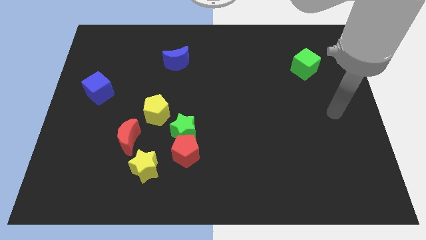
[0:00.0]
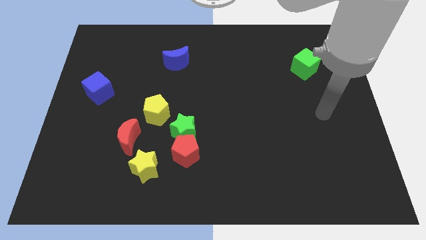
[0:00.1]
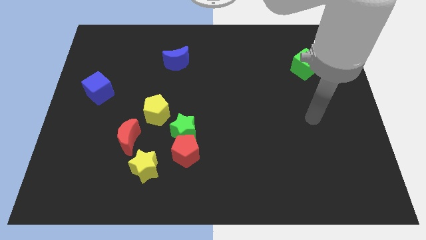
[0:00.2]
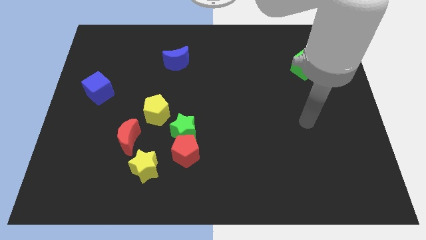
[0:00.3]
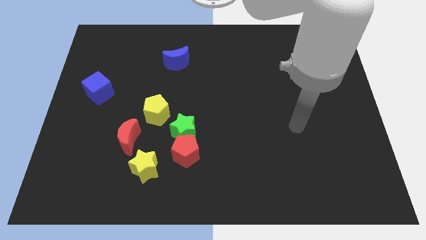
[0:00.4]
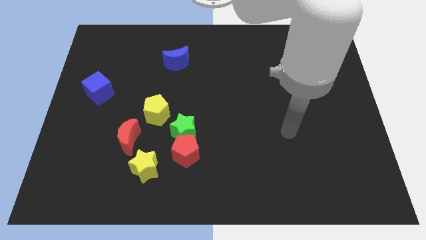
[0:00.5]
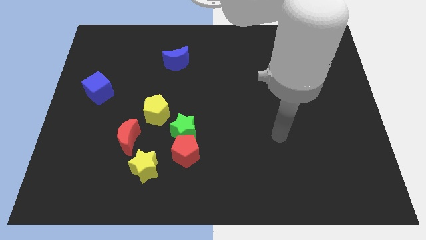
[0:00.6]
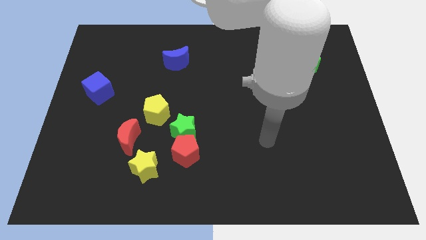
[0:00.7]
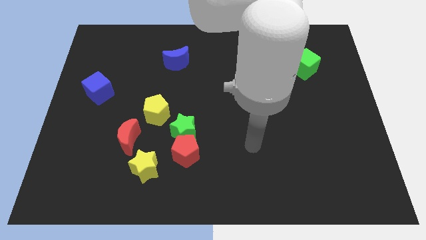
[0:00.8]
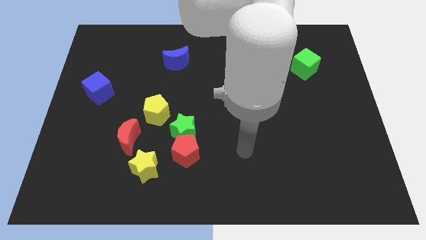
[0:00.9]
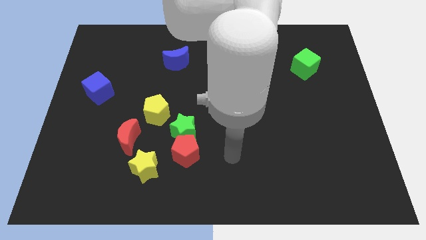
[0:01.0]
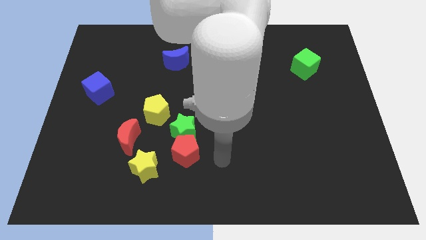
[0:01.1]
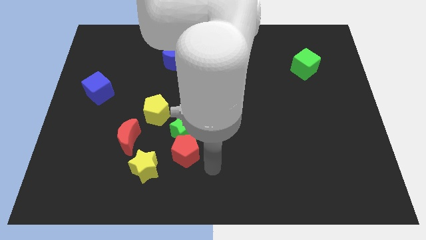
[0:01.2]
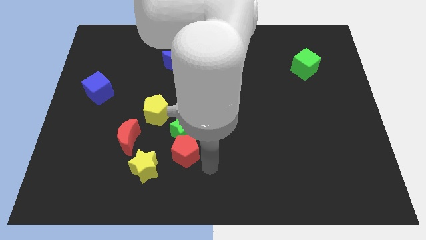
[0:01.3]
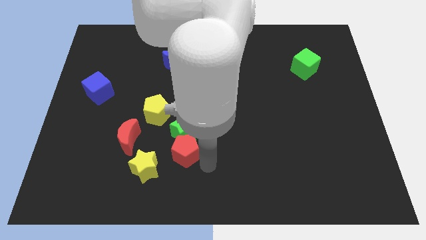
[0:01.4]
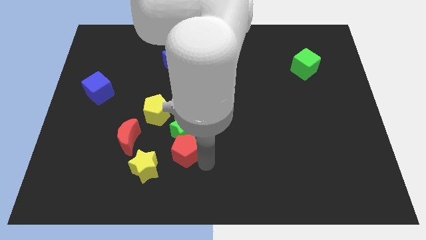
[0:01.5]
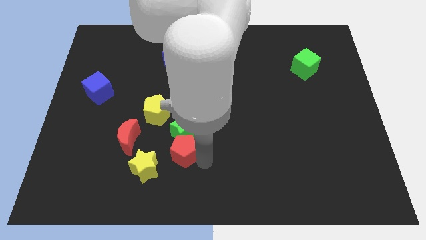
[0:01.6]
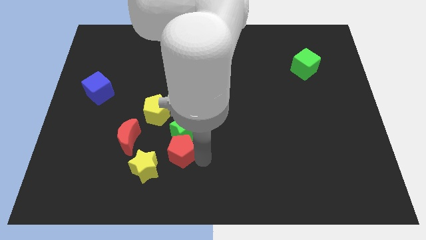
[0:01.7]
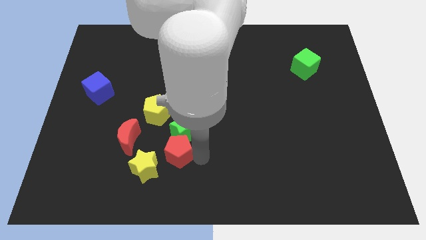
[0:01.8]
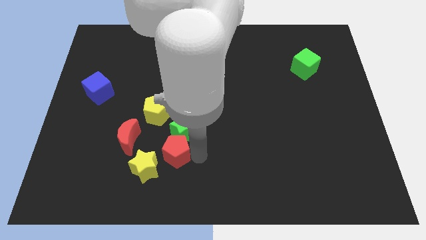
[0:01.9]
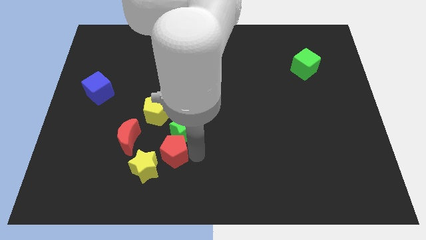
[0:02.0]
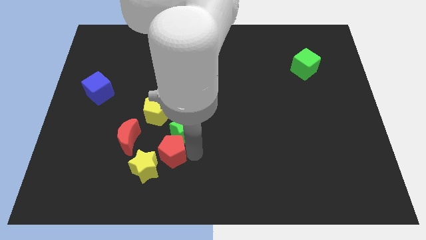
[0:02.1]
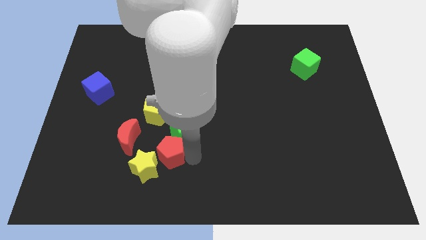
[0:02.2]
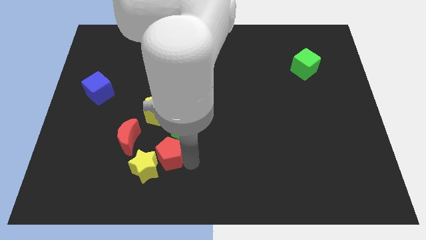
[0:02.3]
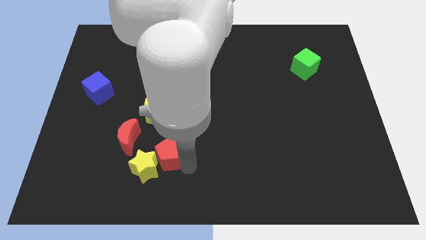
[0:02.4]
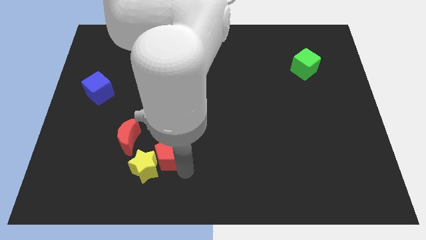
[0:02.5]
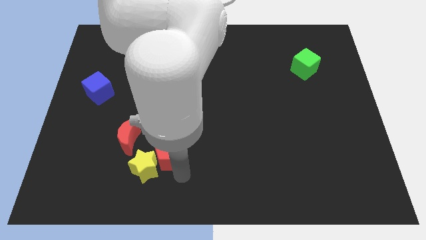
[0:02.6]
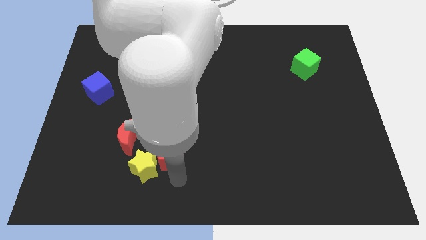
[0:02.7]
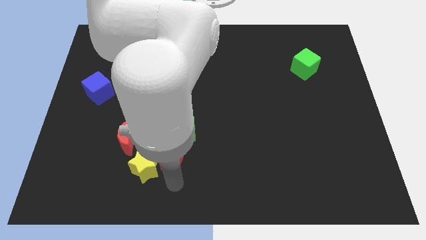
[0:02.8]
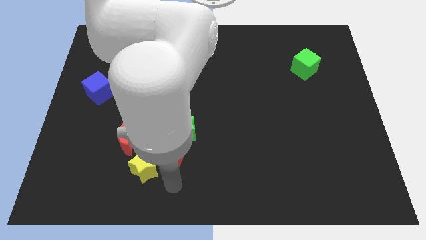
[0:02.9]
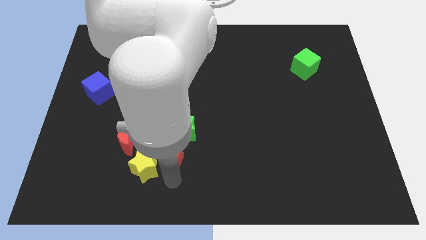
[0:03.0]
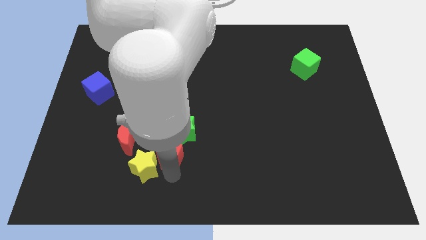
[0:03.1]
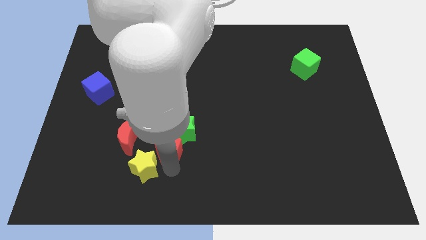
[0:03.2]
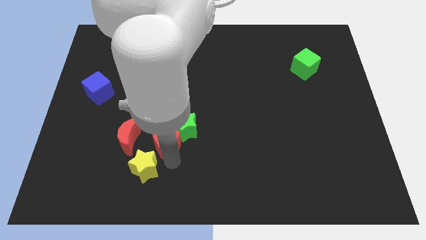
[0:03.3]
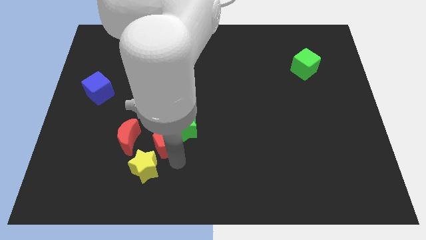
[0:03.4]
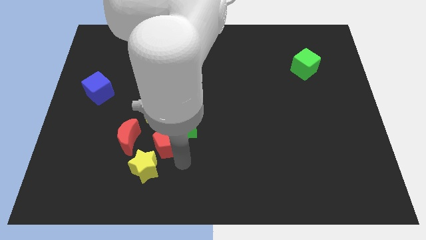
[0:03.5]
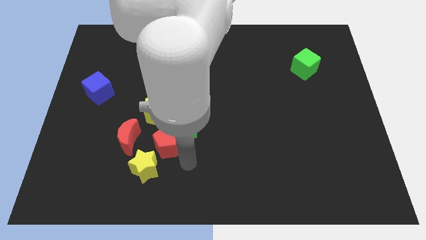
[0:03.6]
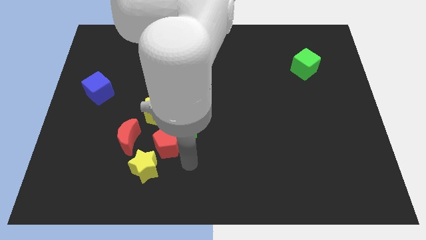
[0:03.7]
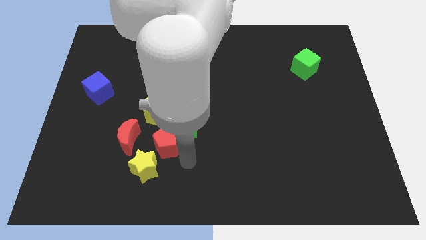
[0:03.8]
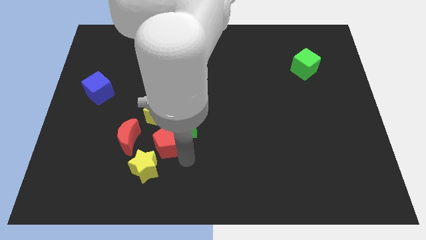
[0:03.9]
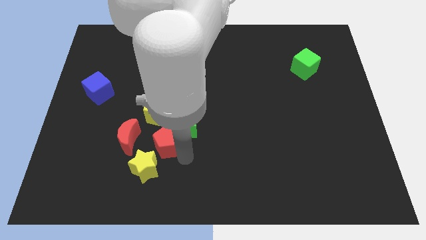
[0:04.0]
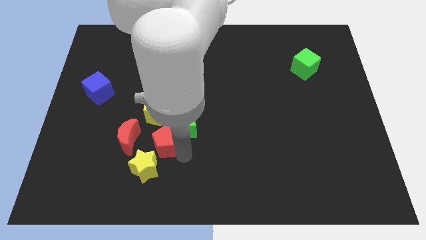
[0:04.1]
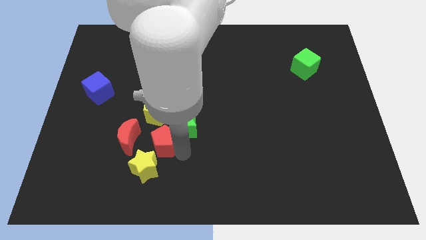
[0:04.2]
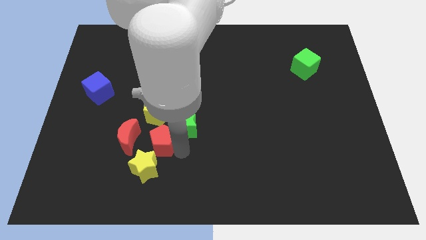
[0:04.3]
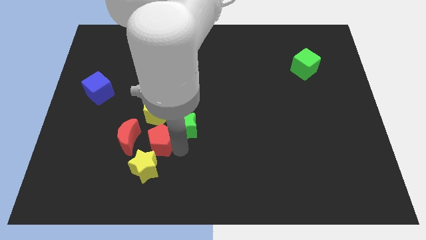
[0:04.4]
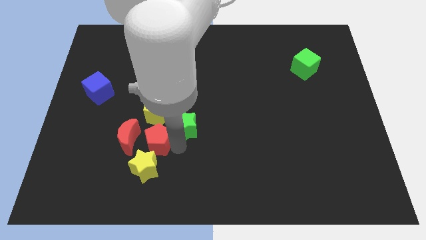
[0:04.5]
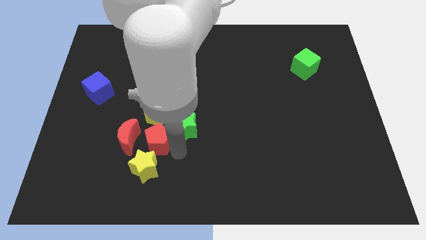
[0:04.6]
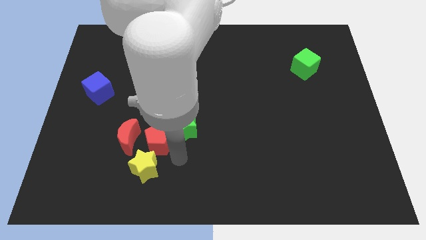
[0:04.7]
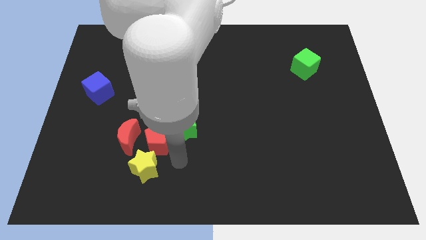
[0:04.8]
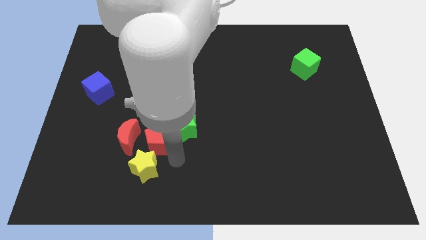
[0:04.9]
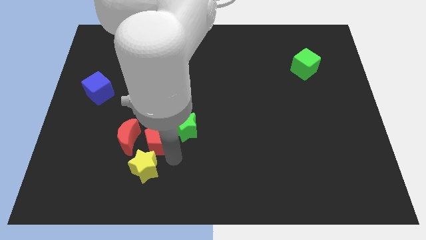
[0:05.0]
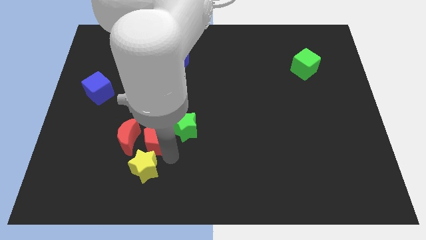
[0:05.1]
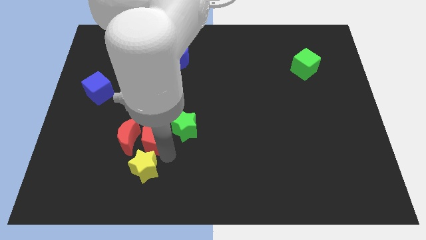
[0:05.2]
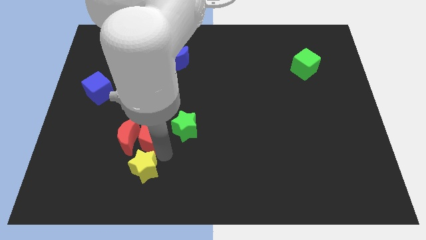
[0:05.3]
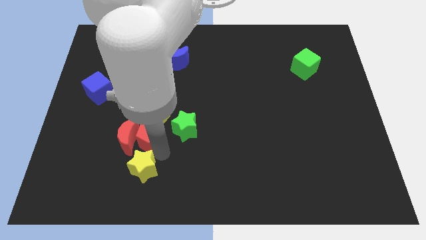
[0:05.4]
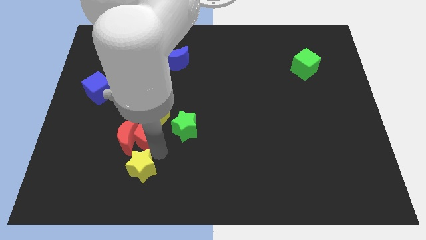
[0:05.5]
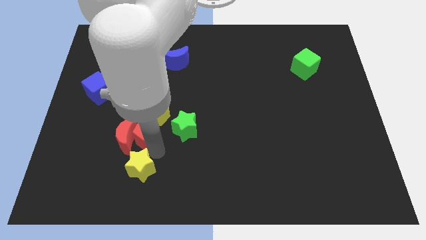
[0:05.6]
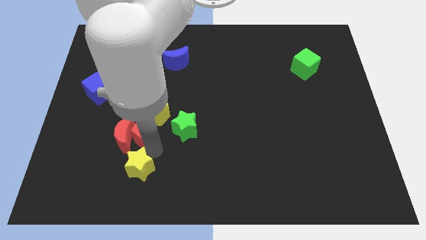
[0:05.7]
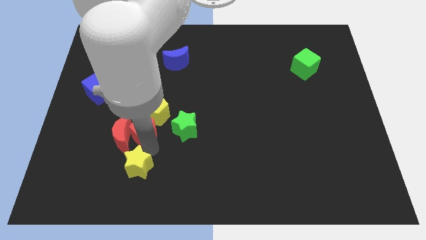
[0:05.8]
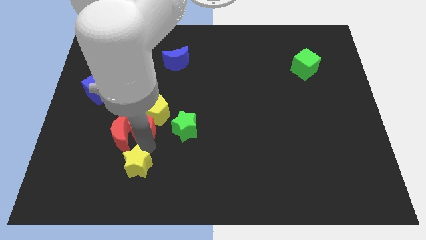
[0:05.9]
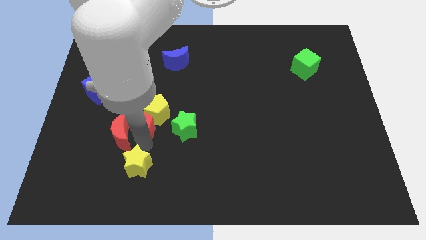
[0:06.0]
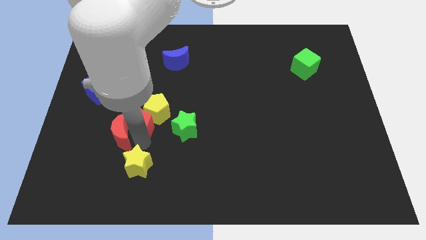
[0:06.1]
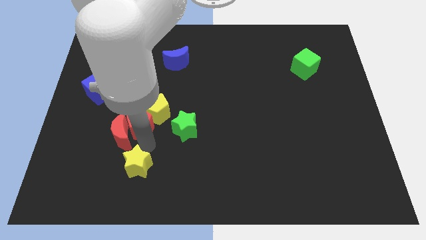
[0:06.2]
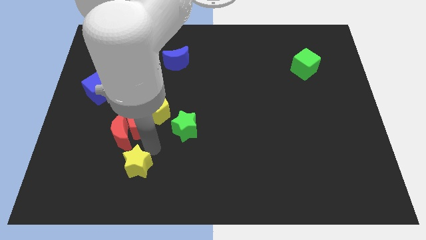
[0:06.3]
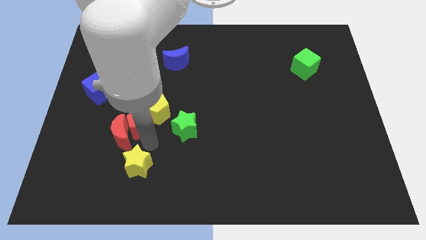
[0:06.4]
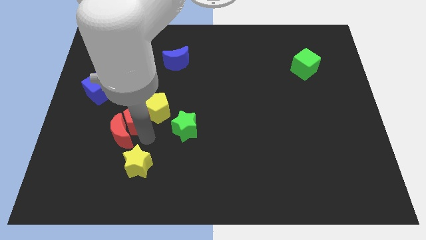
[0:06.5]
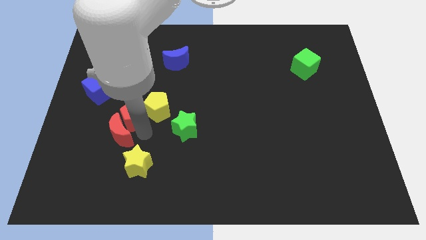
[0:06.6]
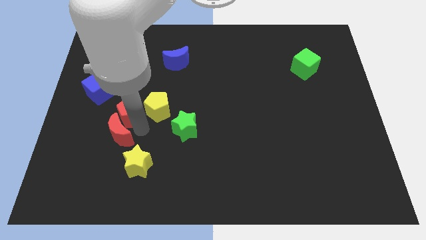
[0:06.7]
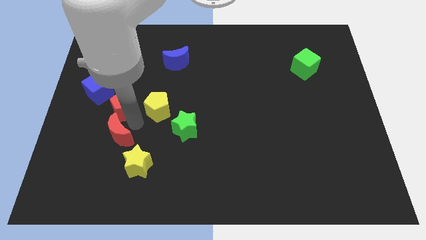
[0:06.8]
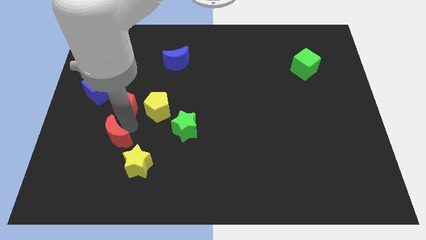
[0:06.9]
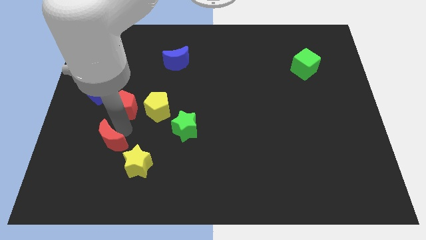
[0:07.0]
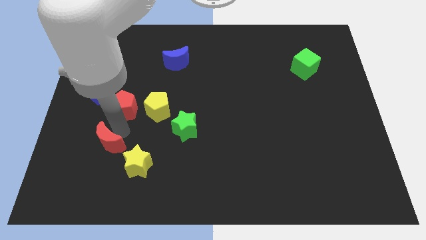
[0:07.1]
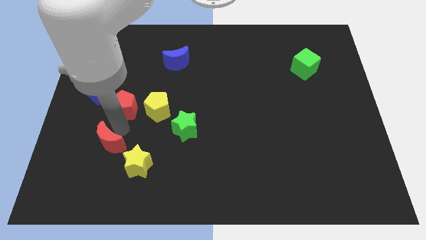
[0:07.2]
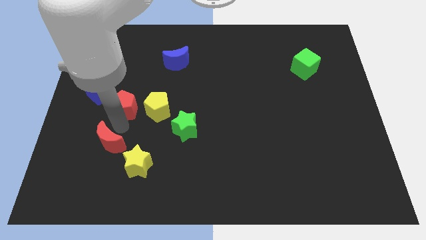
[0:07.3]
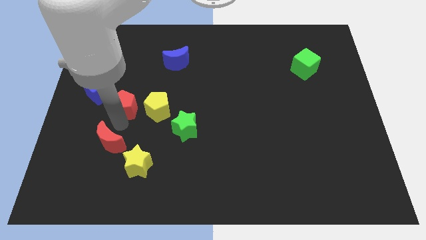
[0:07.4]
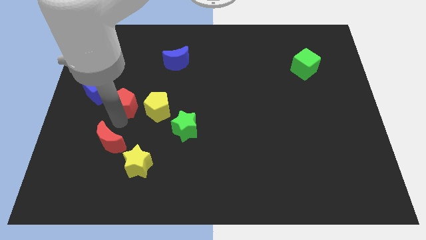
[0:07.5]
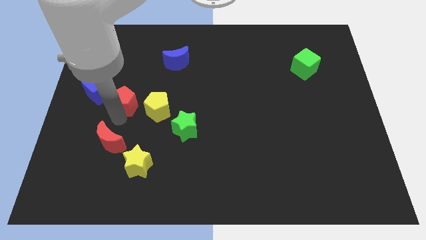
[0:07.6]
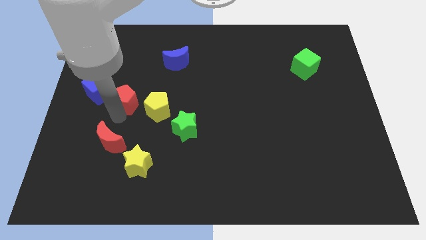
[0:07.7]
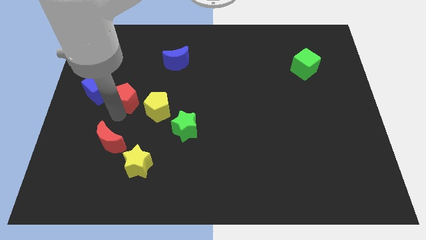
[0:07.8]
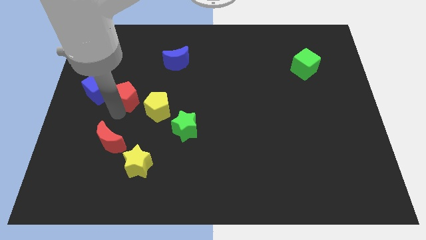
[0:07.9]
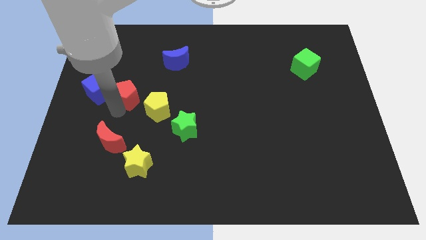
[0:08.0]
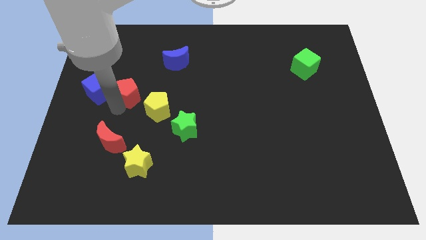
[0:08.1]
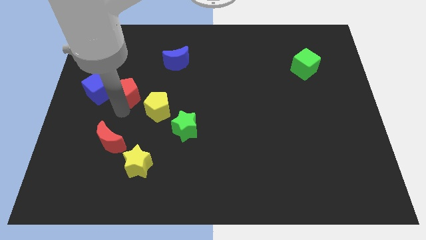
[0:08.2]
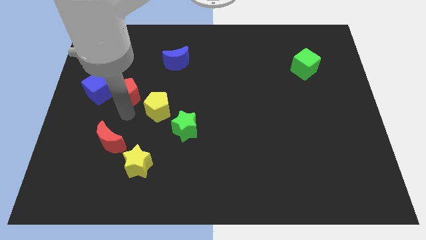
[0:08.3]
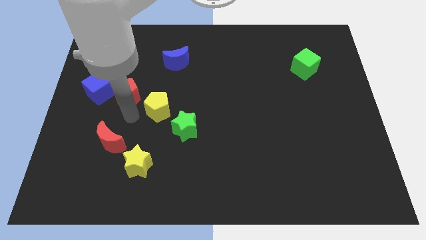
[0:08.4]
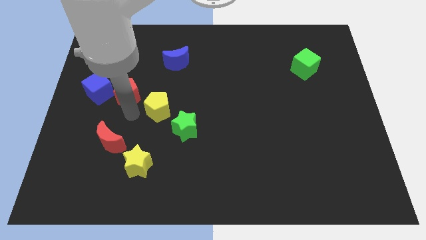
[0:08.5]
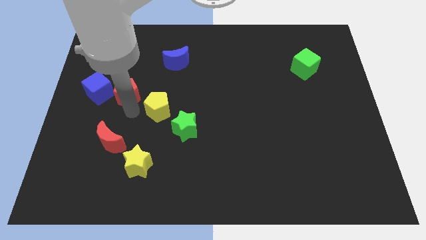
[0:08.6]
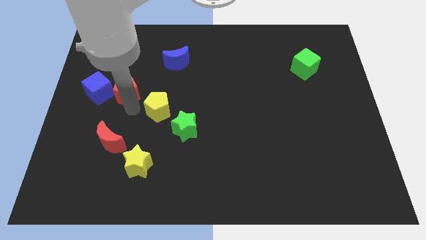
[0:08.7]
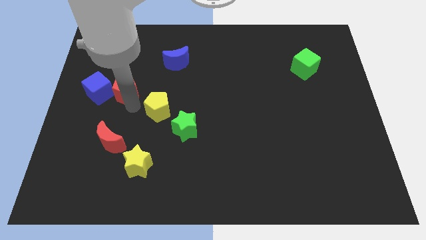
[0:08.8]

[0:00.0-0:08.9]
put the red pentagon diagonally up and to the right of the blue cube
